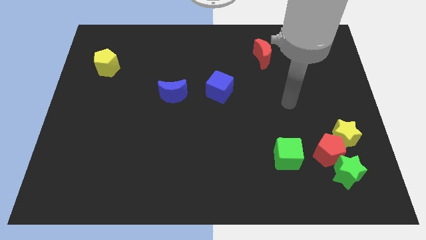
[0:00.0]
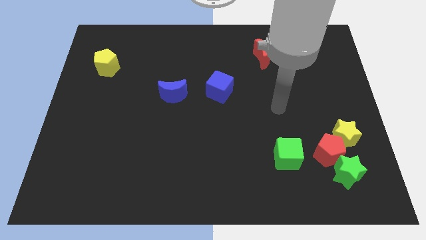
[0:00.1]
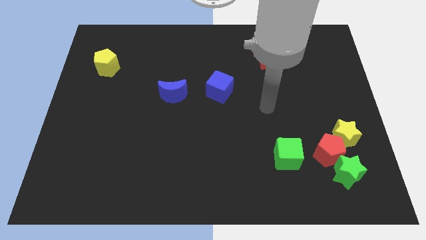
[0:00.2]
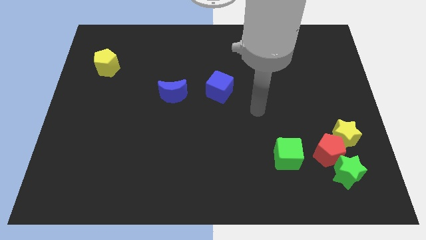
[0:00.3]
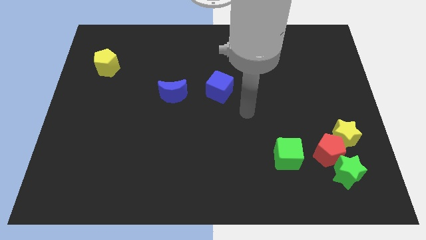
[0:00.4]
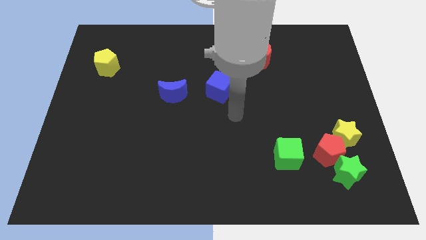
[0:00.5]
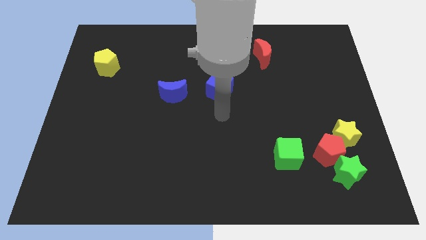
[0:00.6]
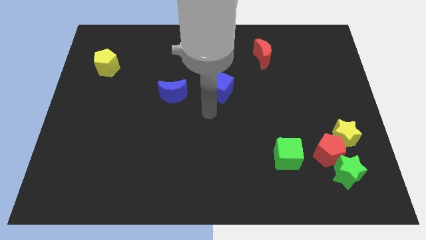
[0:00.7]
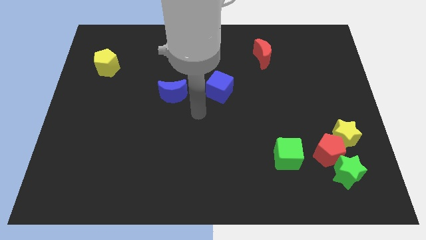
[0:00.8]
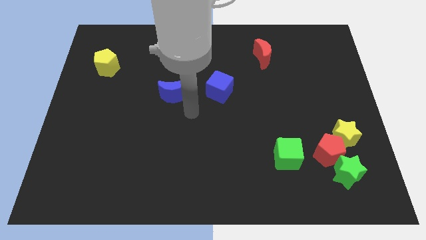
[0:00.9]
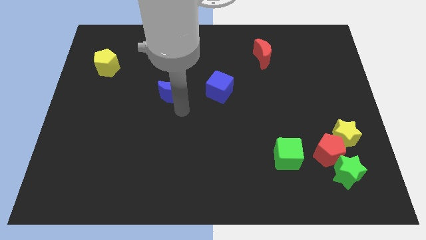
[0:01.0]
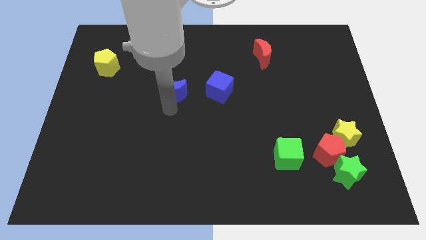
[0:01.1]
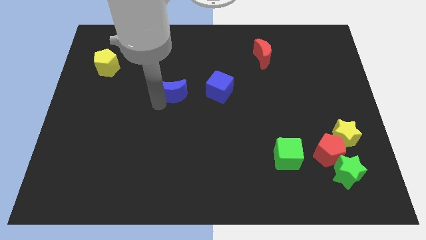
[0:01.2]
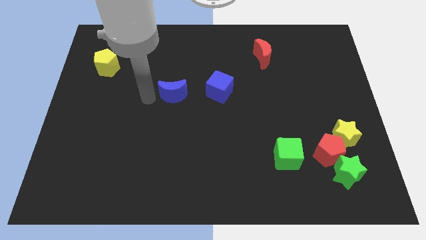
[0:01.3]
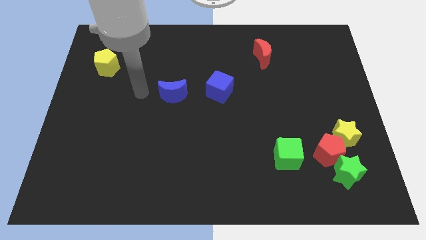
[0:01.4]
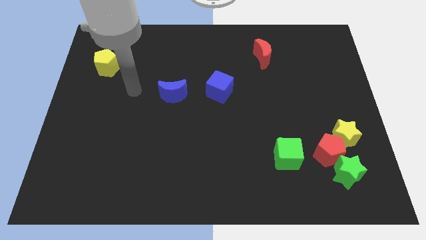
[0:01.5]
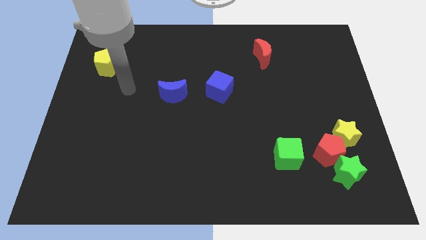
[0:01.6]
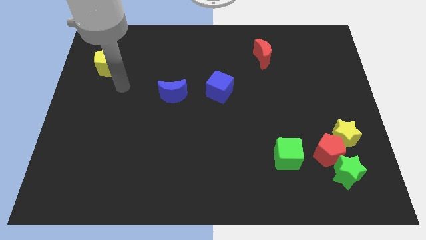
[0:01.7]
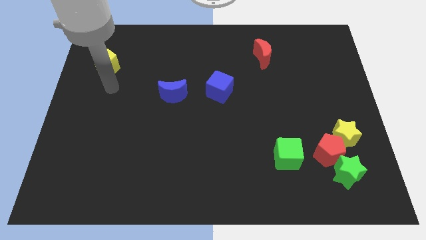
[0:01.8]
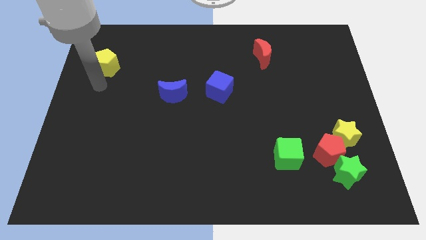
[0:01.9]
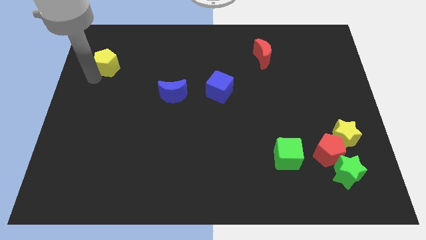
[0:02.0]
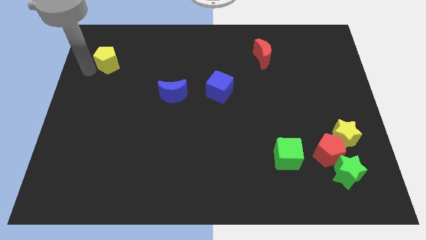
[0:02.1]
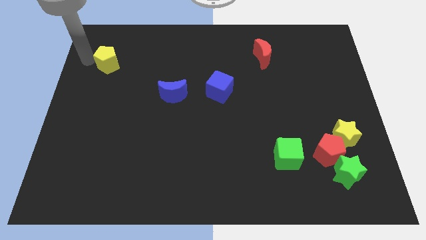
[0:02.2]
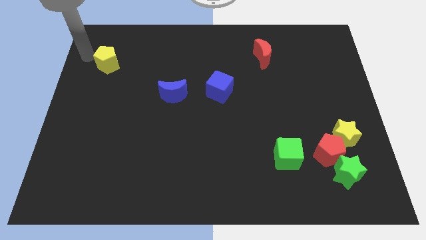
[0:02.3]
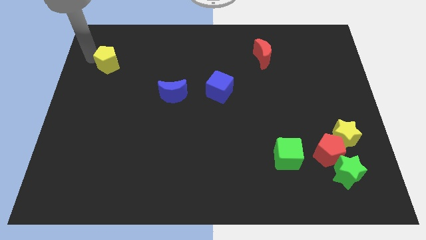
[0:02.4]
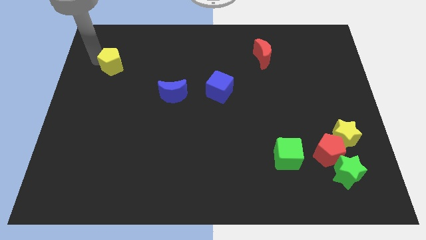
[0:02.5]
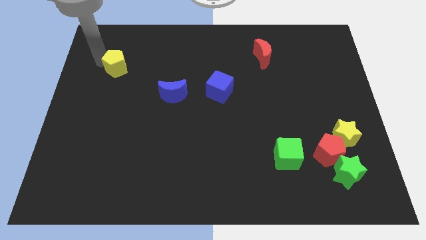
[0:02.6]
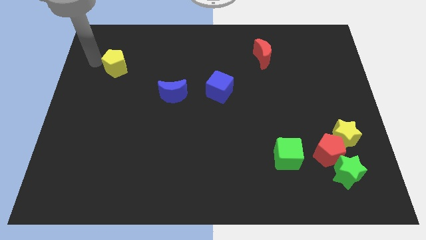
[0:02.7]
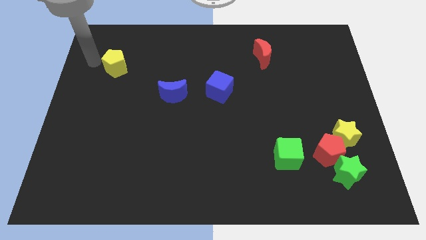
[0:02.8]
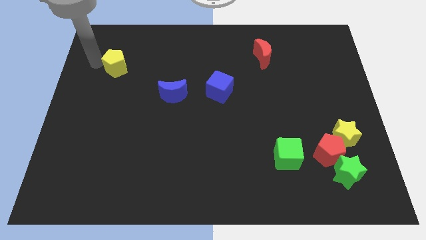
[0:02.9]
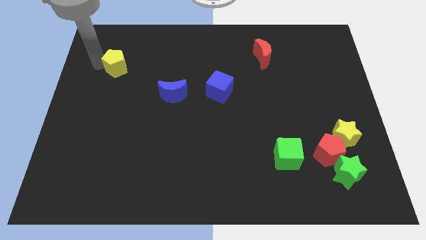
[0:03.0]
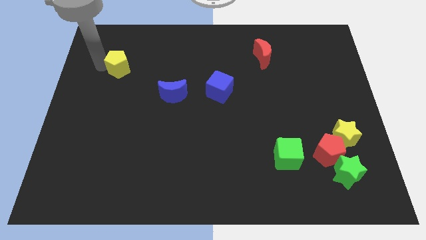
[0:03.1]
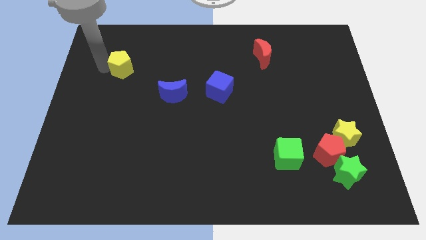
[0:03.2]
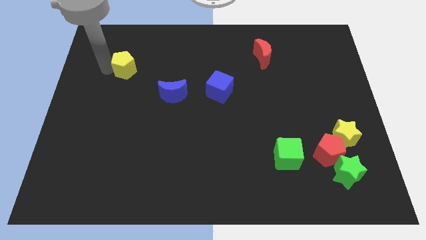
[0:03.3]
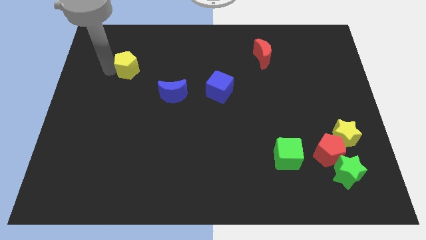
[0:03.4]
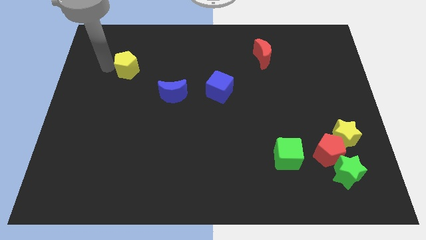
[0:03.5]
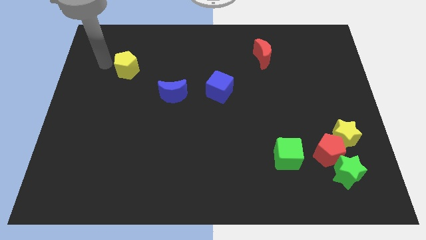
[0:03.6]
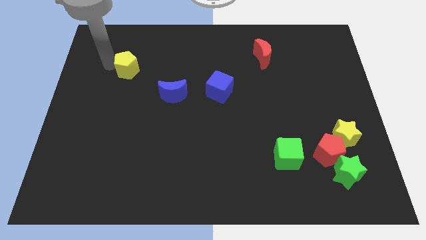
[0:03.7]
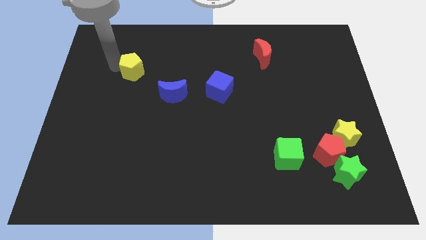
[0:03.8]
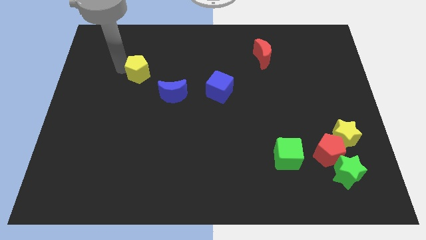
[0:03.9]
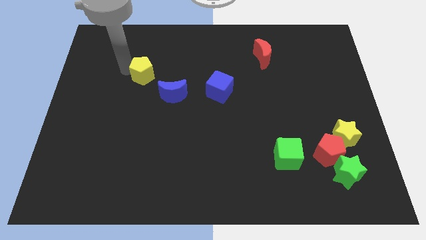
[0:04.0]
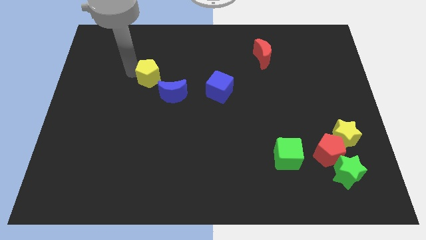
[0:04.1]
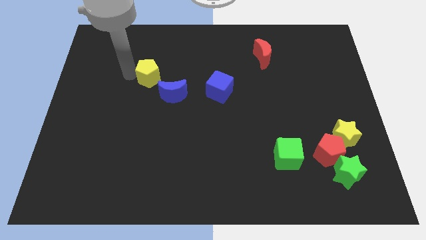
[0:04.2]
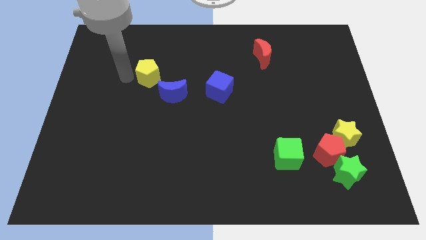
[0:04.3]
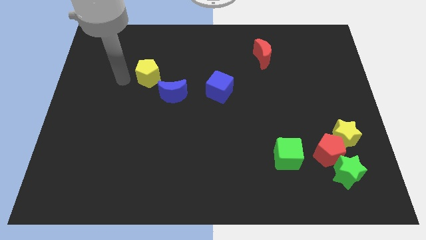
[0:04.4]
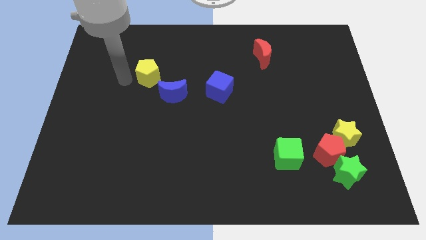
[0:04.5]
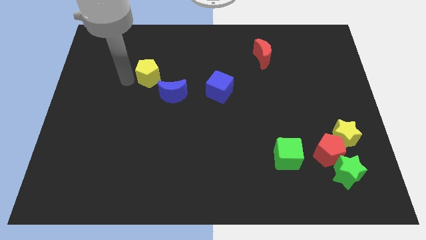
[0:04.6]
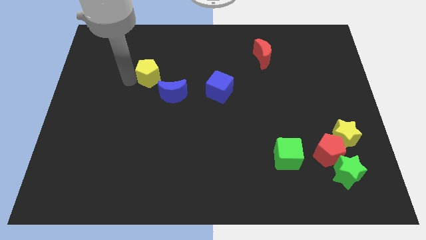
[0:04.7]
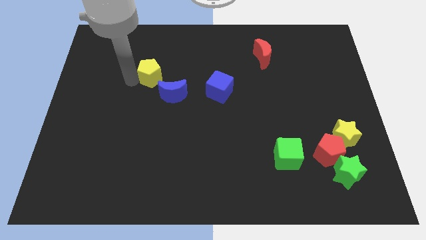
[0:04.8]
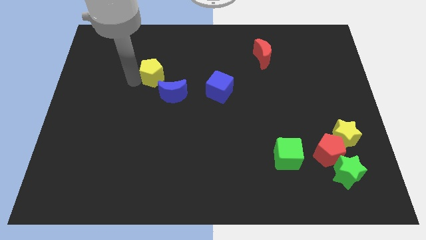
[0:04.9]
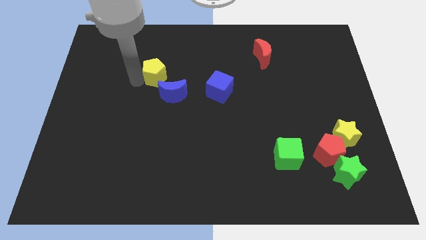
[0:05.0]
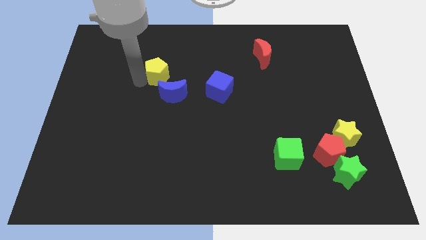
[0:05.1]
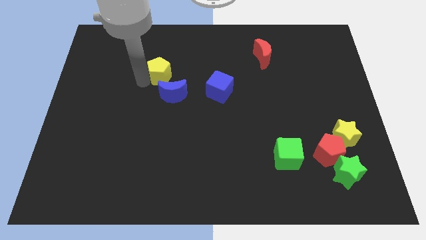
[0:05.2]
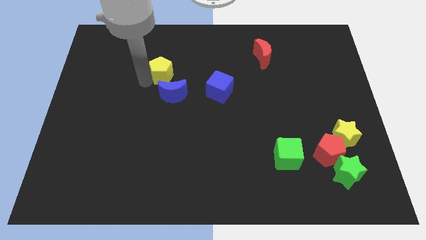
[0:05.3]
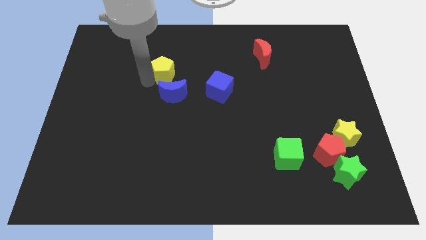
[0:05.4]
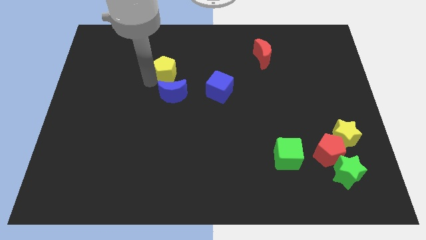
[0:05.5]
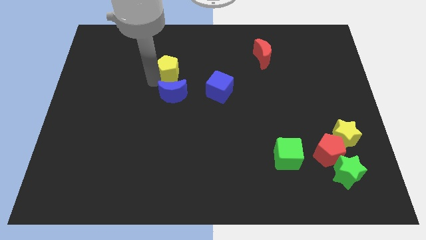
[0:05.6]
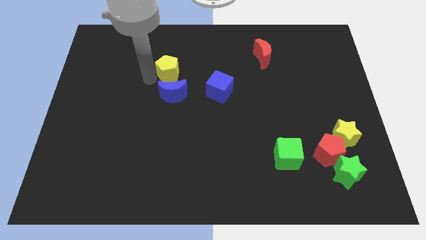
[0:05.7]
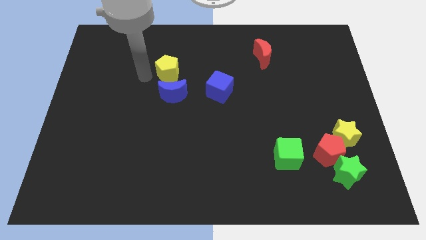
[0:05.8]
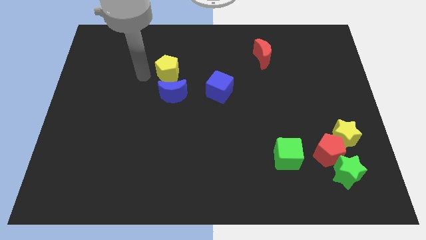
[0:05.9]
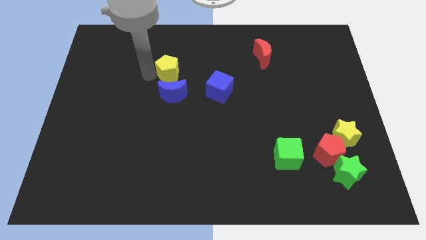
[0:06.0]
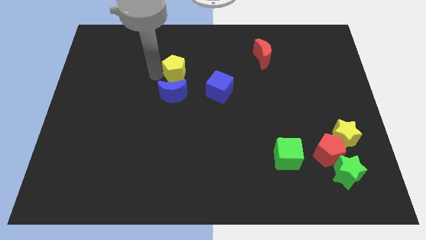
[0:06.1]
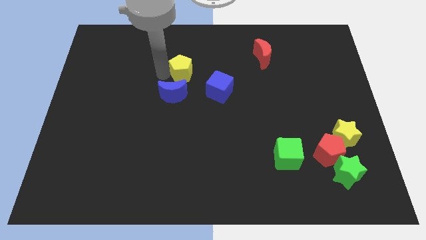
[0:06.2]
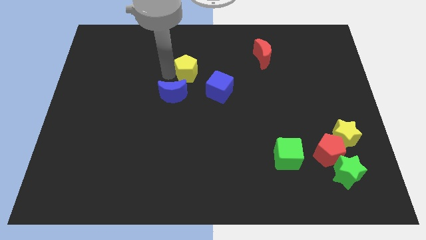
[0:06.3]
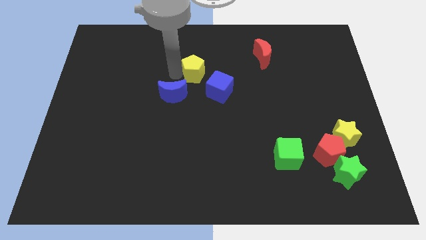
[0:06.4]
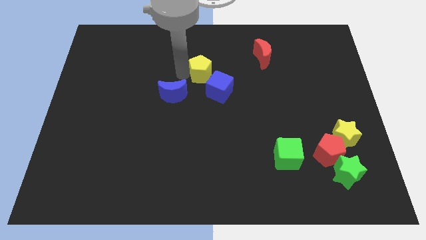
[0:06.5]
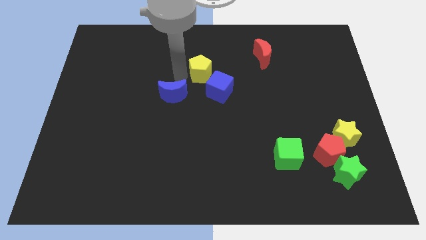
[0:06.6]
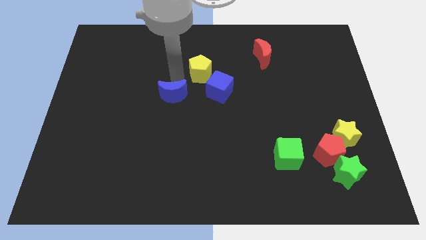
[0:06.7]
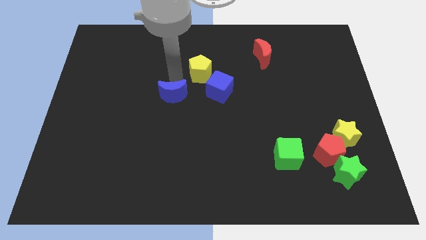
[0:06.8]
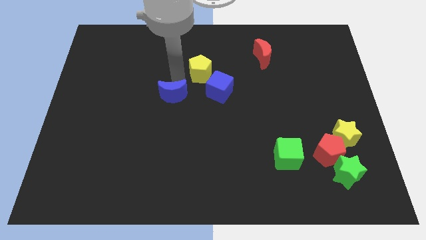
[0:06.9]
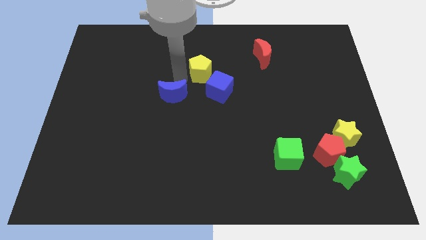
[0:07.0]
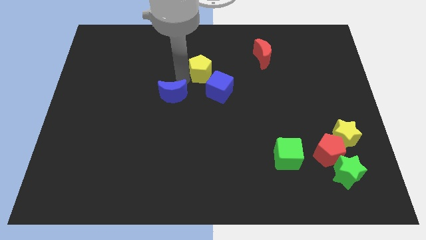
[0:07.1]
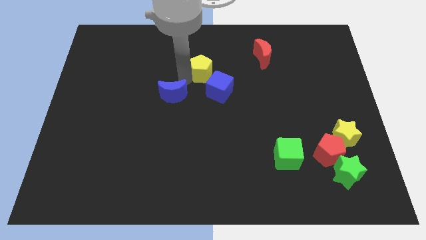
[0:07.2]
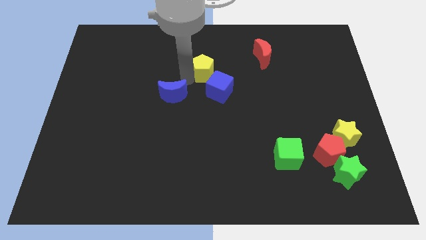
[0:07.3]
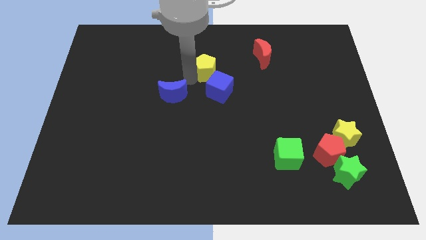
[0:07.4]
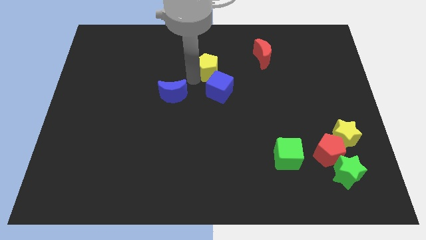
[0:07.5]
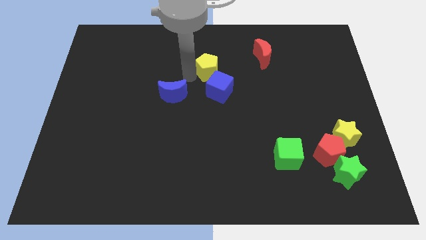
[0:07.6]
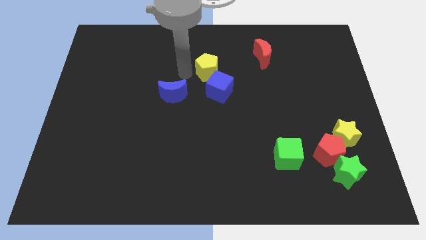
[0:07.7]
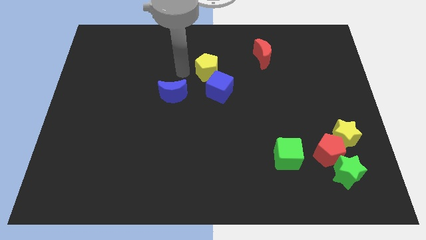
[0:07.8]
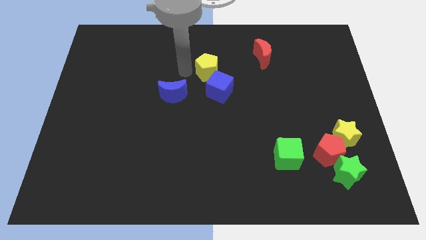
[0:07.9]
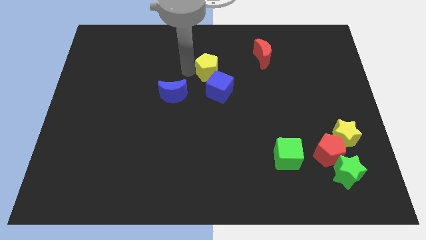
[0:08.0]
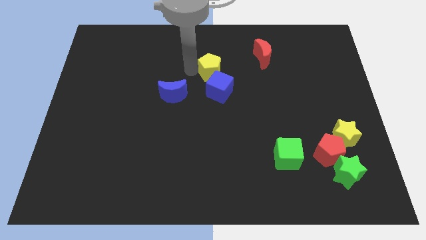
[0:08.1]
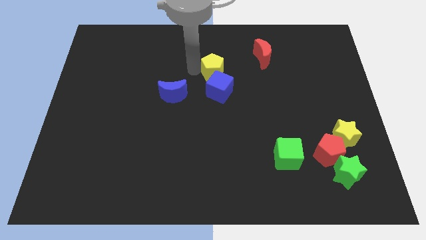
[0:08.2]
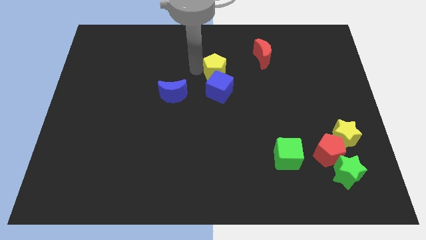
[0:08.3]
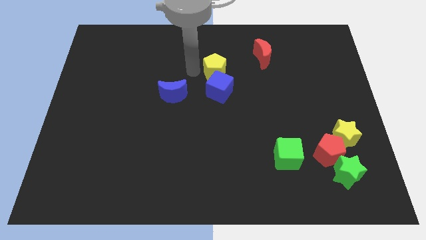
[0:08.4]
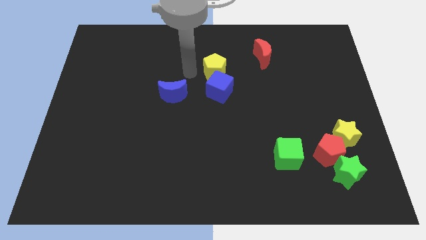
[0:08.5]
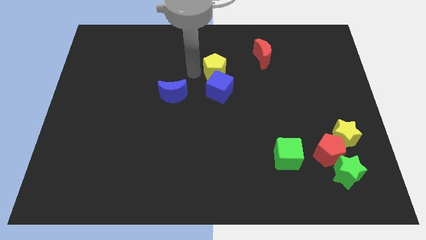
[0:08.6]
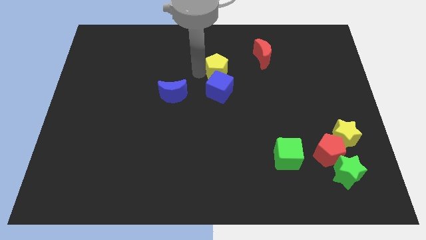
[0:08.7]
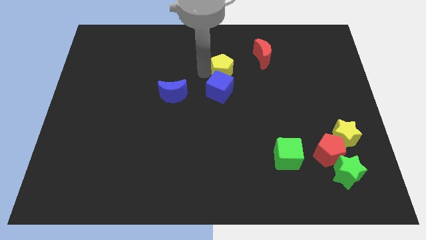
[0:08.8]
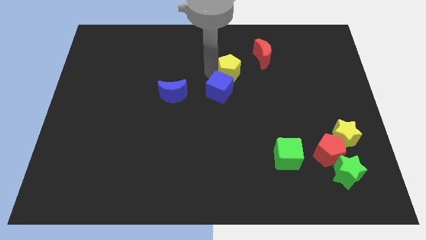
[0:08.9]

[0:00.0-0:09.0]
push the yellow pentagon to the bottom left side of the red moon
